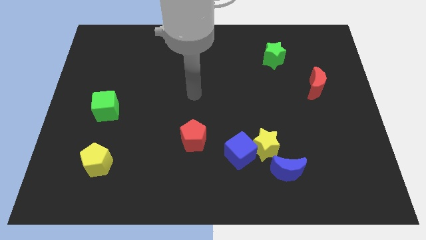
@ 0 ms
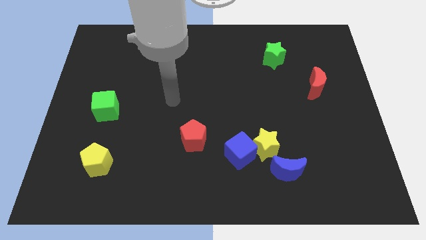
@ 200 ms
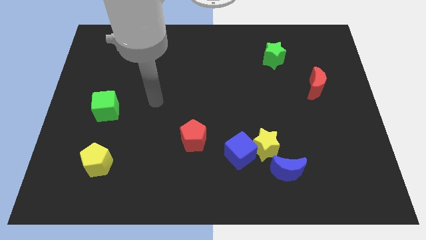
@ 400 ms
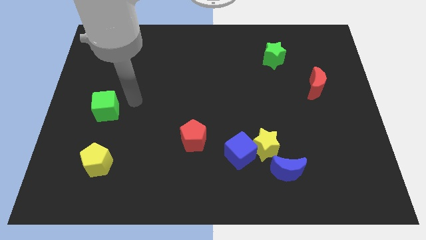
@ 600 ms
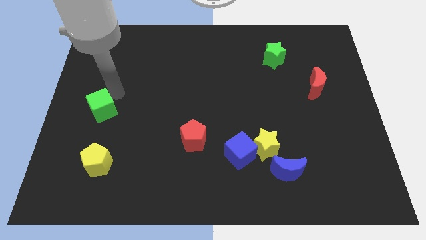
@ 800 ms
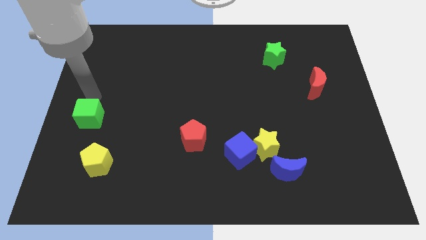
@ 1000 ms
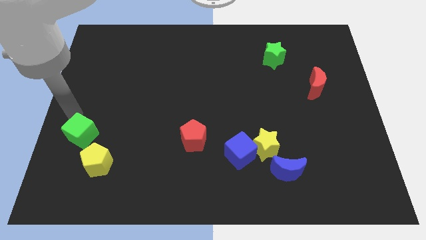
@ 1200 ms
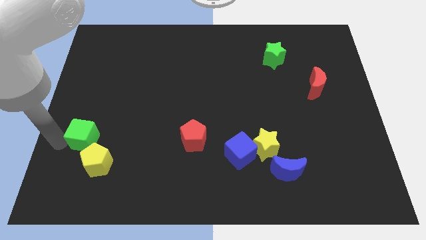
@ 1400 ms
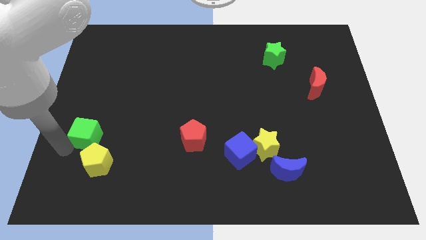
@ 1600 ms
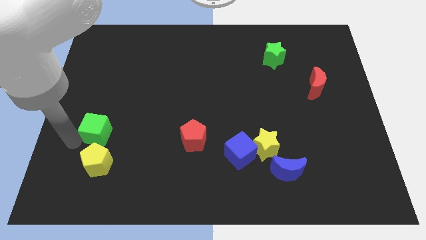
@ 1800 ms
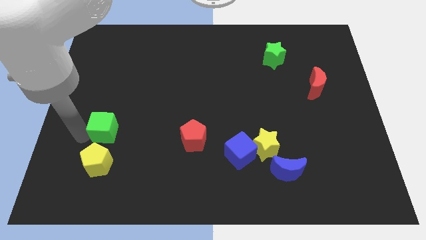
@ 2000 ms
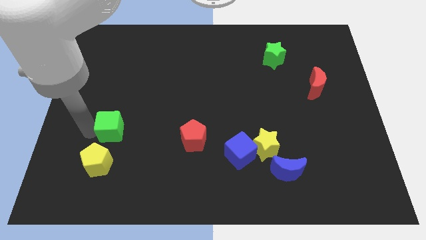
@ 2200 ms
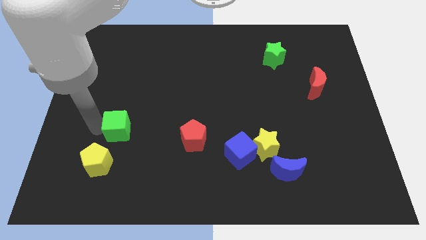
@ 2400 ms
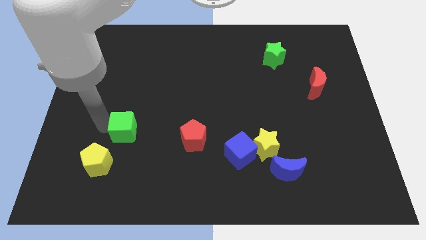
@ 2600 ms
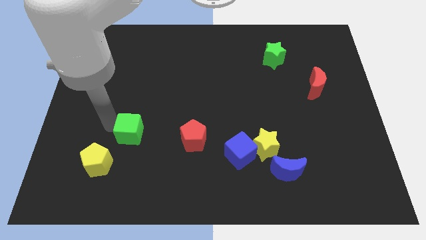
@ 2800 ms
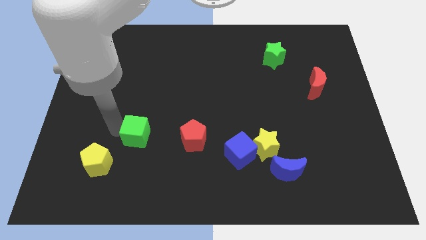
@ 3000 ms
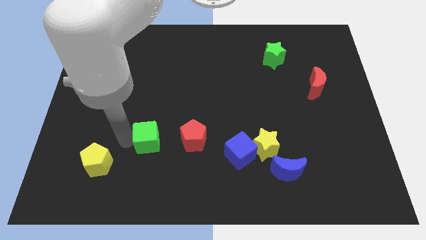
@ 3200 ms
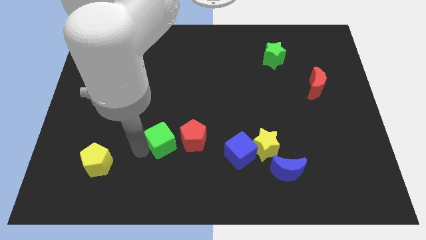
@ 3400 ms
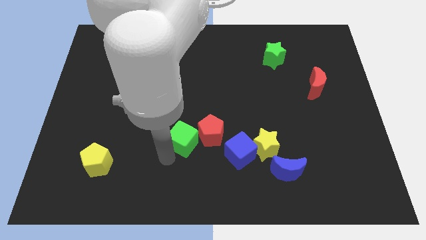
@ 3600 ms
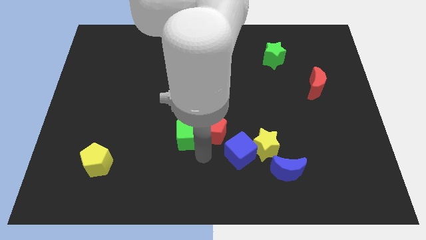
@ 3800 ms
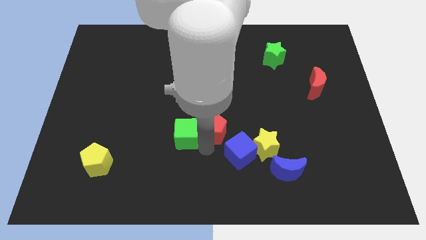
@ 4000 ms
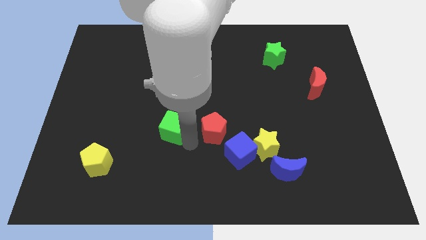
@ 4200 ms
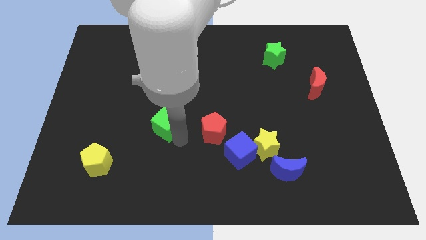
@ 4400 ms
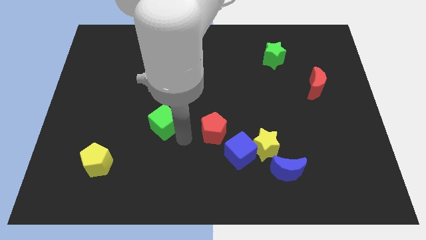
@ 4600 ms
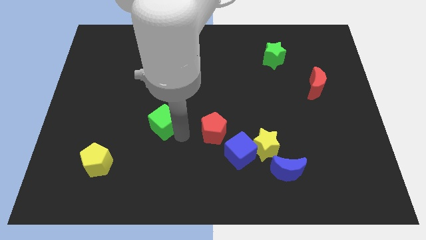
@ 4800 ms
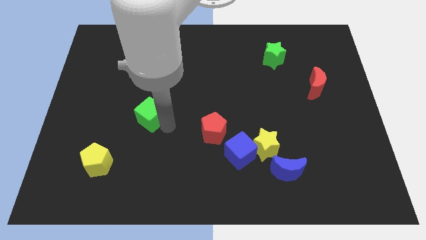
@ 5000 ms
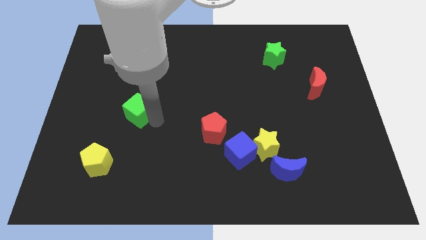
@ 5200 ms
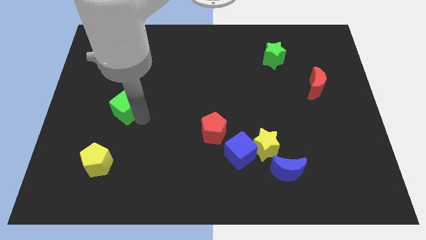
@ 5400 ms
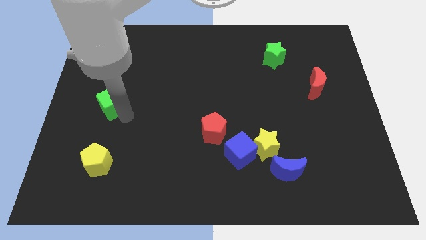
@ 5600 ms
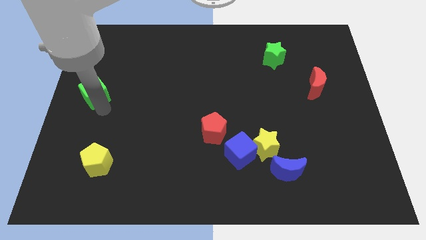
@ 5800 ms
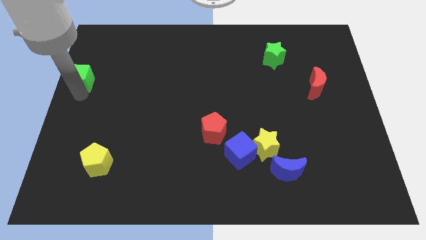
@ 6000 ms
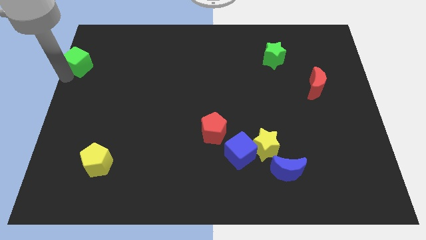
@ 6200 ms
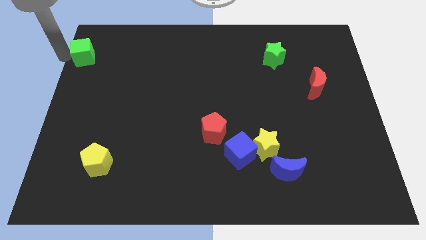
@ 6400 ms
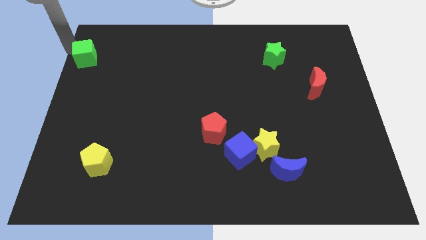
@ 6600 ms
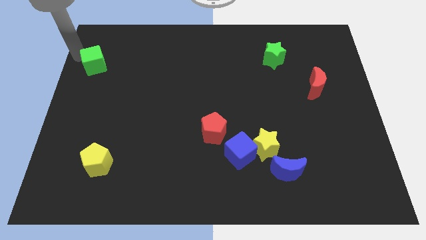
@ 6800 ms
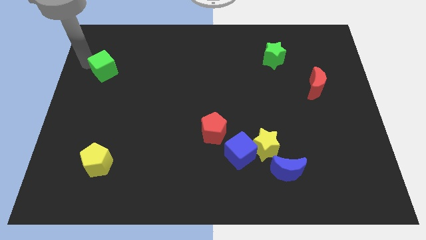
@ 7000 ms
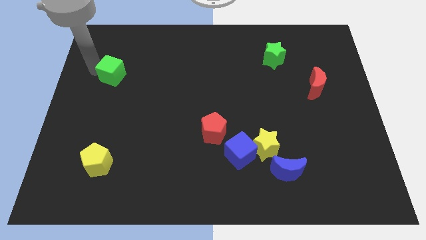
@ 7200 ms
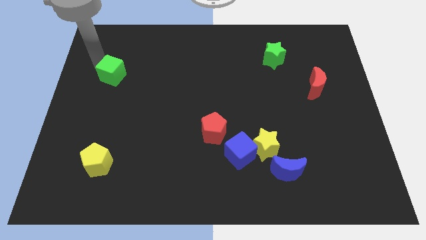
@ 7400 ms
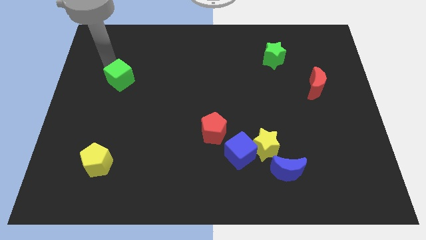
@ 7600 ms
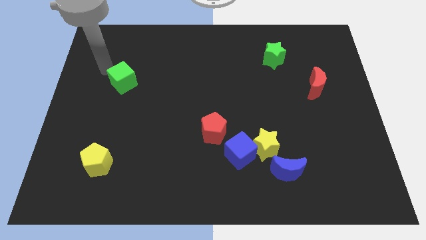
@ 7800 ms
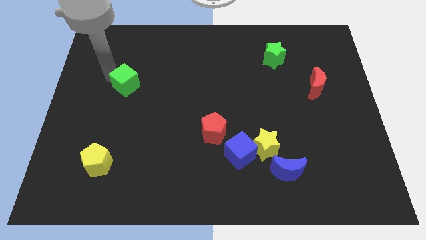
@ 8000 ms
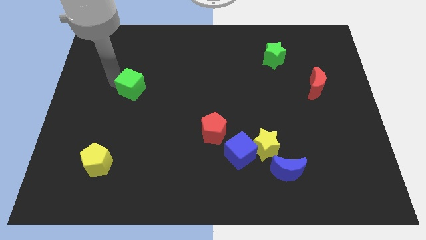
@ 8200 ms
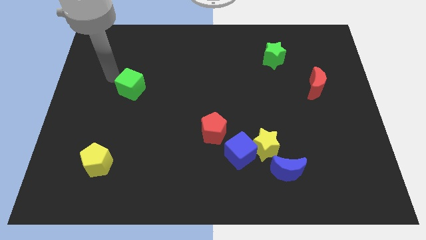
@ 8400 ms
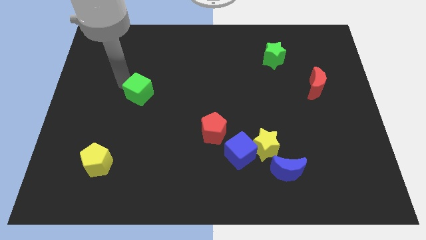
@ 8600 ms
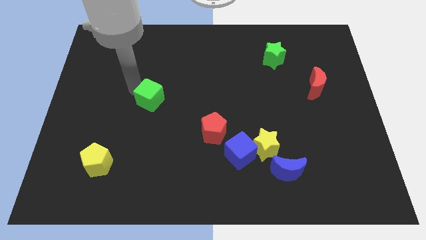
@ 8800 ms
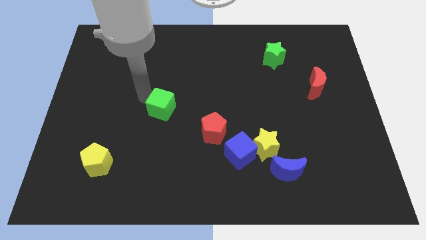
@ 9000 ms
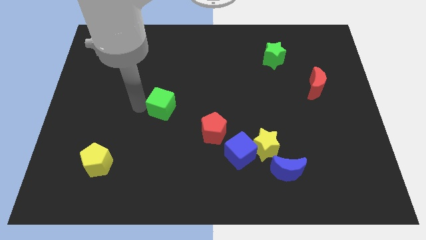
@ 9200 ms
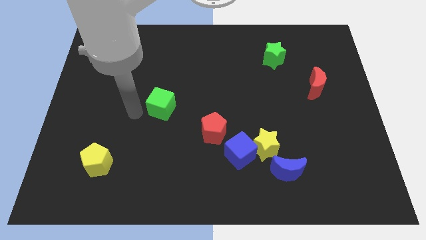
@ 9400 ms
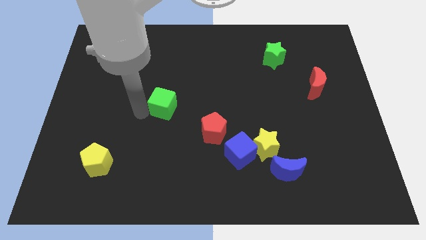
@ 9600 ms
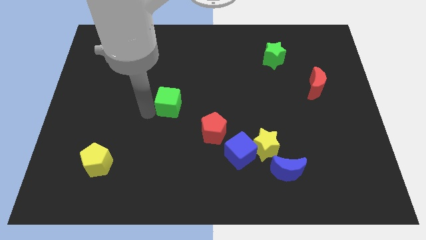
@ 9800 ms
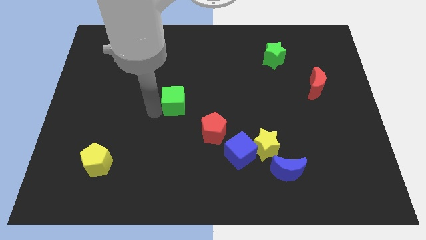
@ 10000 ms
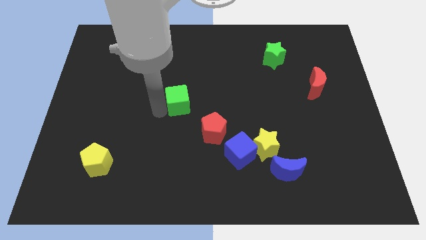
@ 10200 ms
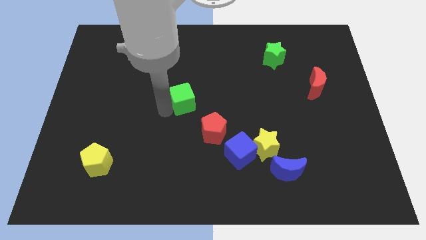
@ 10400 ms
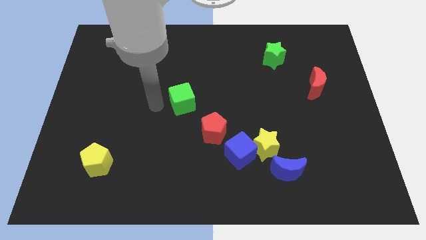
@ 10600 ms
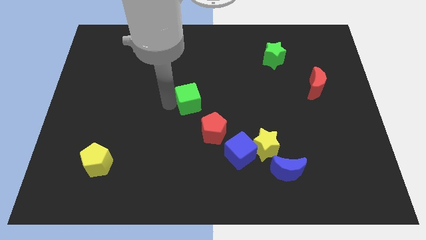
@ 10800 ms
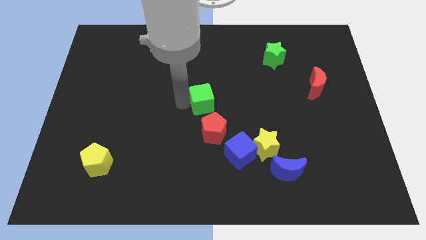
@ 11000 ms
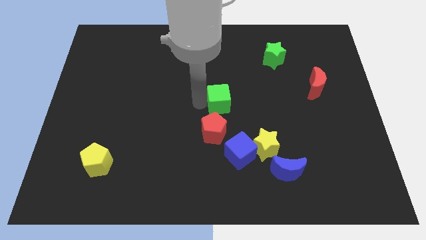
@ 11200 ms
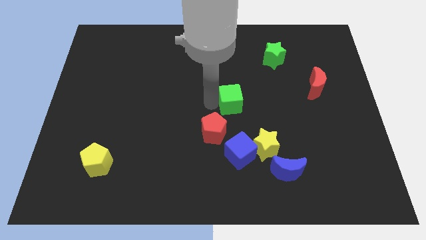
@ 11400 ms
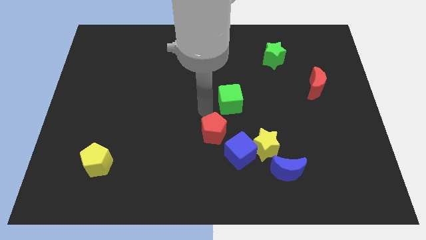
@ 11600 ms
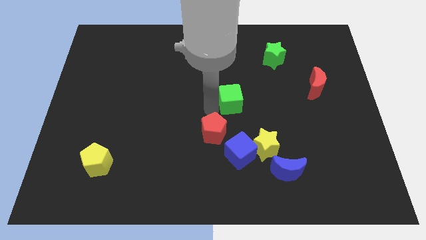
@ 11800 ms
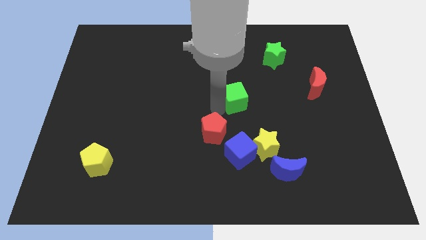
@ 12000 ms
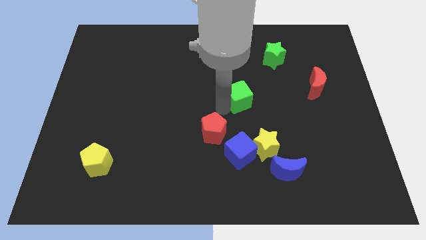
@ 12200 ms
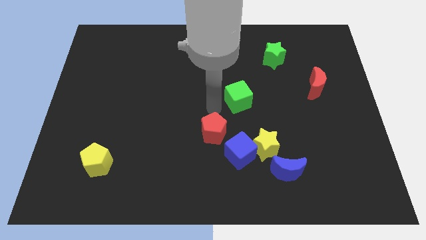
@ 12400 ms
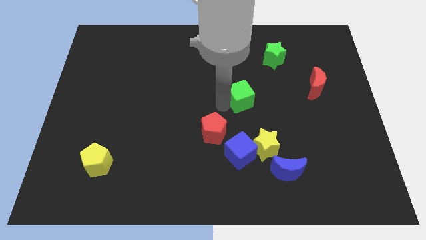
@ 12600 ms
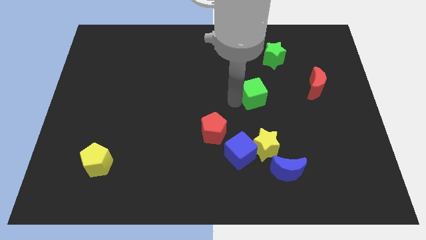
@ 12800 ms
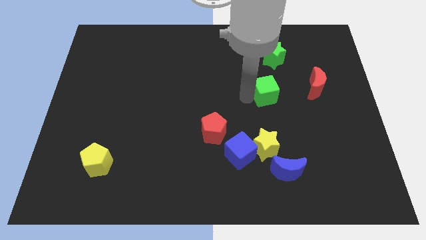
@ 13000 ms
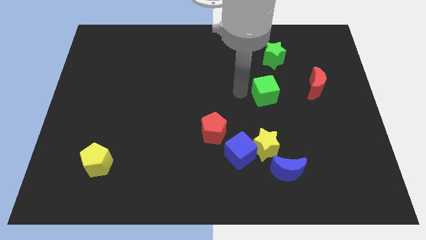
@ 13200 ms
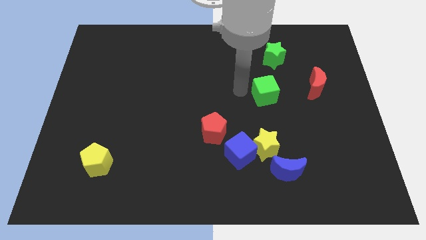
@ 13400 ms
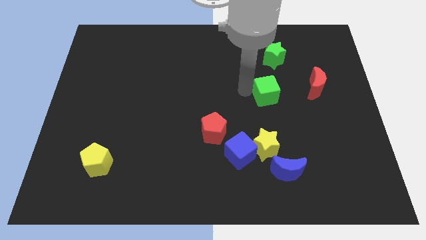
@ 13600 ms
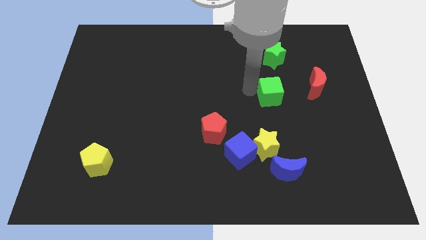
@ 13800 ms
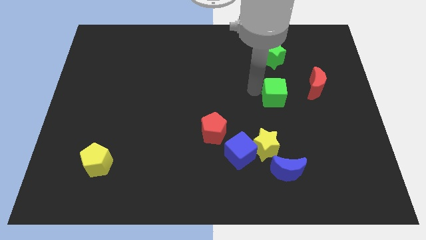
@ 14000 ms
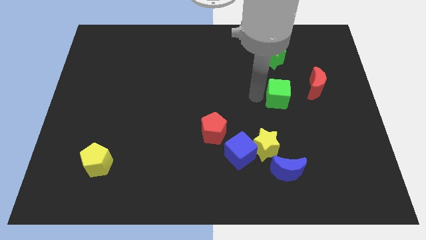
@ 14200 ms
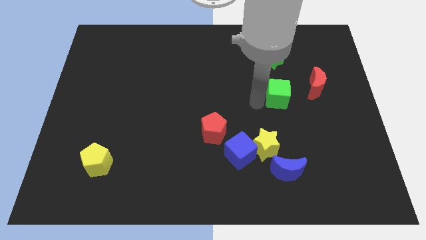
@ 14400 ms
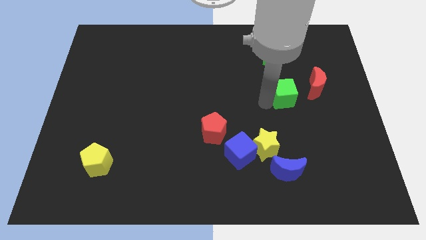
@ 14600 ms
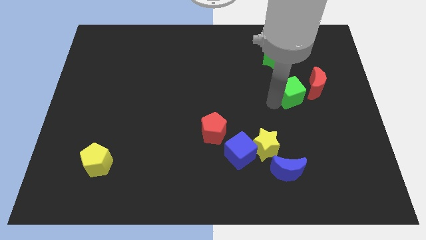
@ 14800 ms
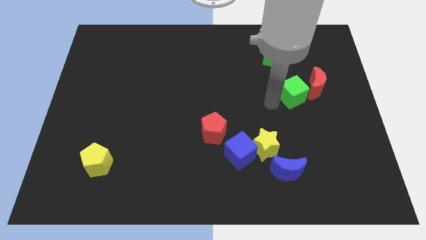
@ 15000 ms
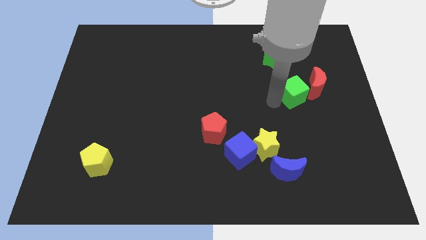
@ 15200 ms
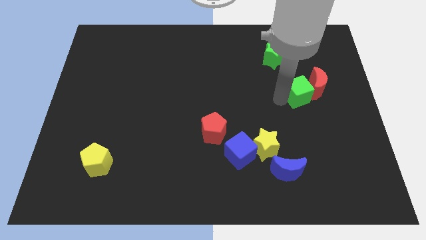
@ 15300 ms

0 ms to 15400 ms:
push the green cube close to the red moon
